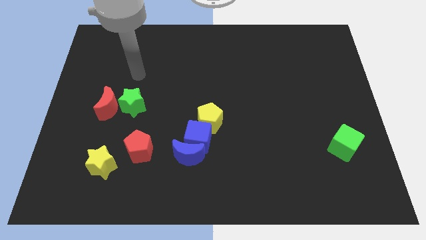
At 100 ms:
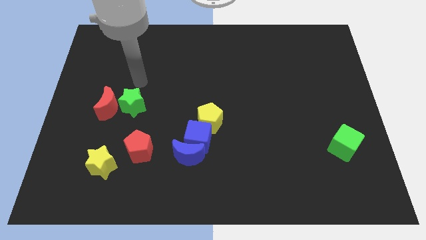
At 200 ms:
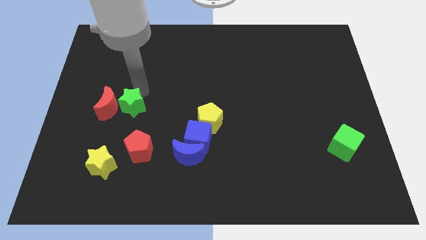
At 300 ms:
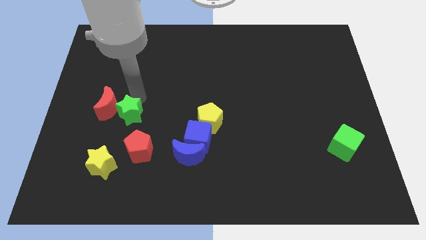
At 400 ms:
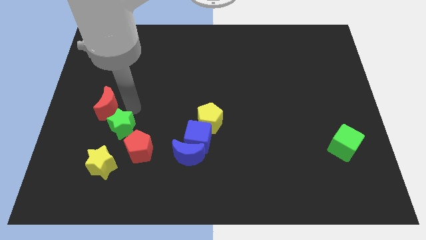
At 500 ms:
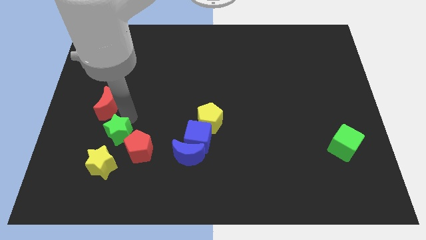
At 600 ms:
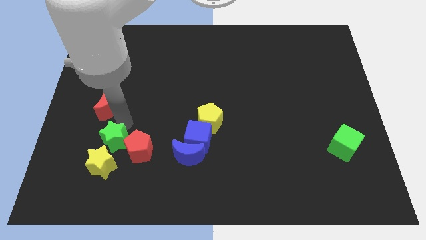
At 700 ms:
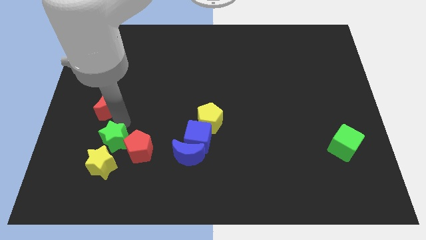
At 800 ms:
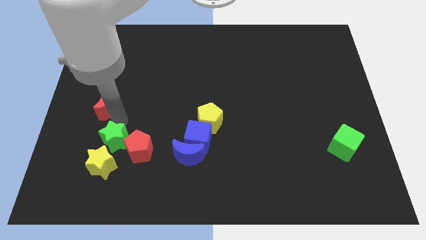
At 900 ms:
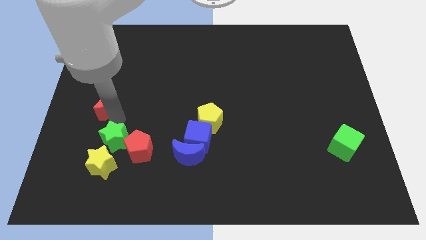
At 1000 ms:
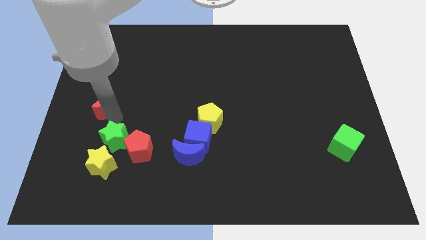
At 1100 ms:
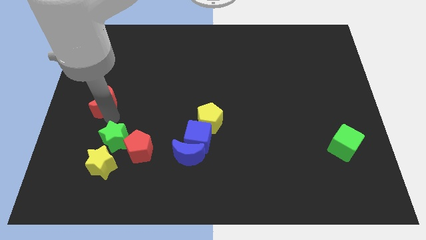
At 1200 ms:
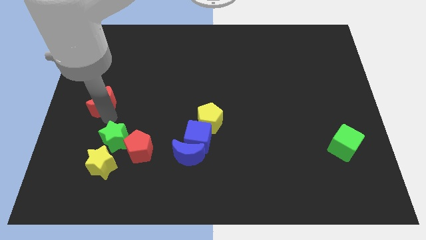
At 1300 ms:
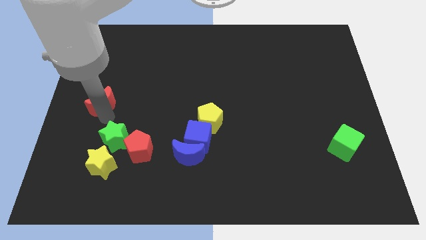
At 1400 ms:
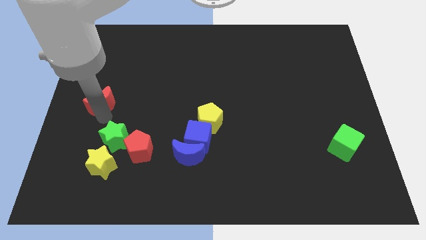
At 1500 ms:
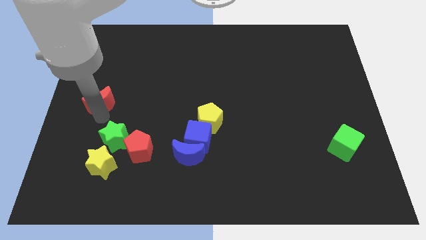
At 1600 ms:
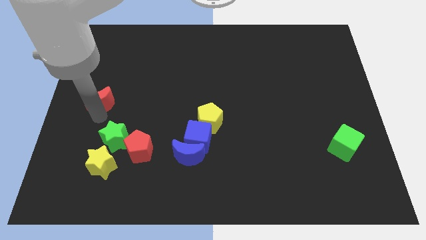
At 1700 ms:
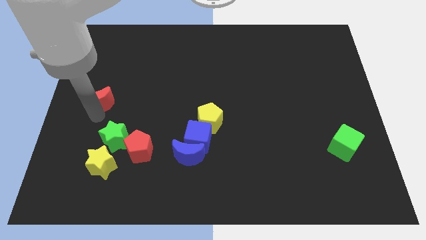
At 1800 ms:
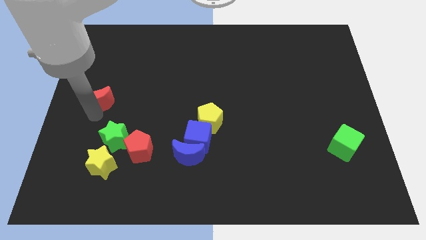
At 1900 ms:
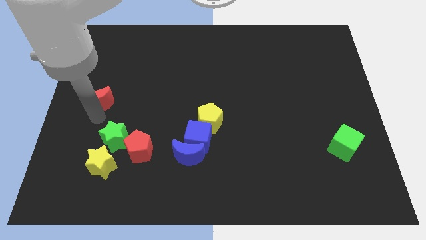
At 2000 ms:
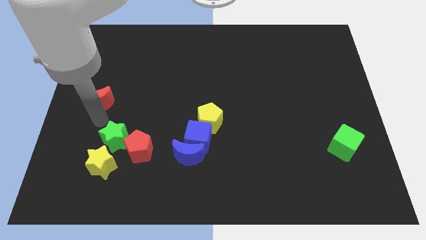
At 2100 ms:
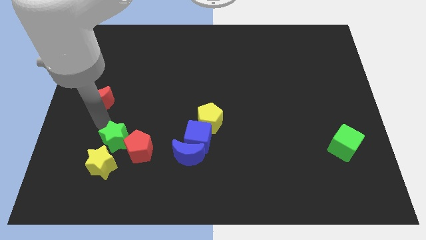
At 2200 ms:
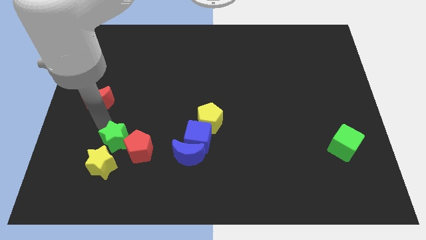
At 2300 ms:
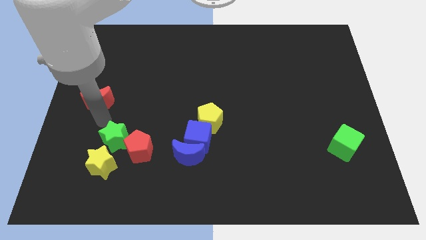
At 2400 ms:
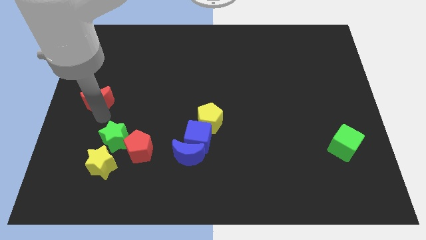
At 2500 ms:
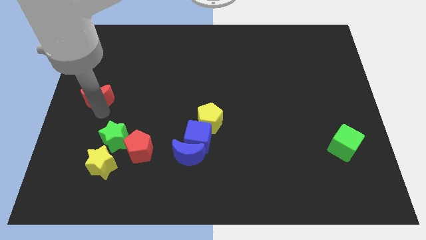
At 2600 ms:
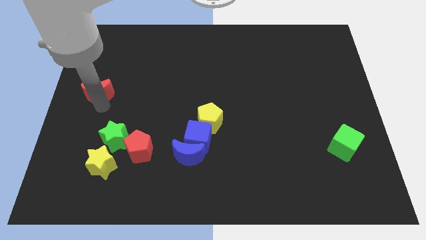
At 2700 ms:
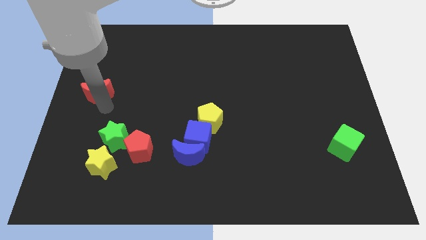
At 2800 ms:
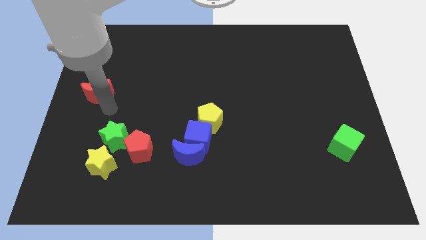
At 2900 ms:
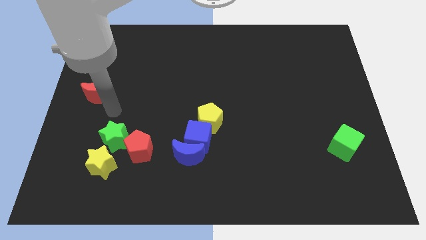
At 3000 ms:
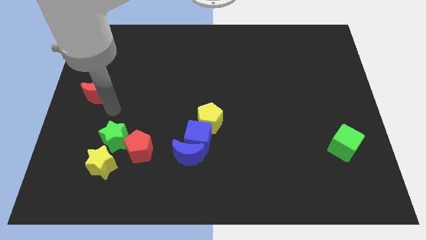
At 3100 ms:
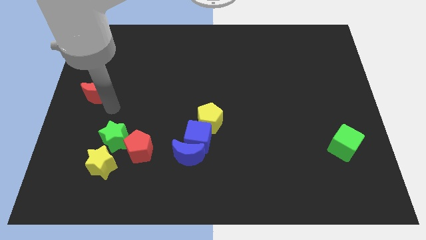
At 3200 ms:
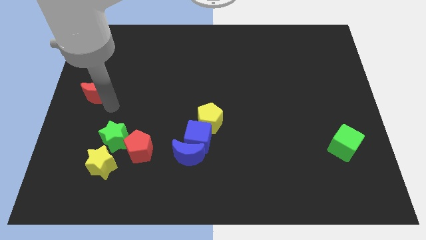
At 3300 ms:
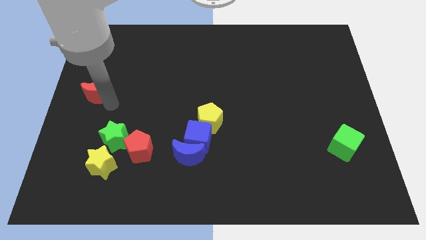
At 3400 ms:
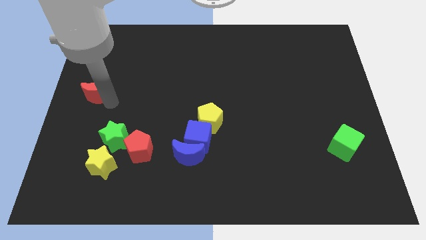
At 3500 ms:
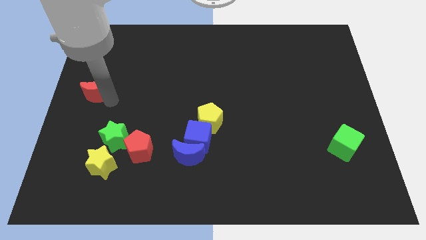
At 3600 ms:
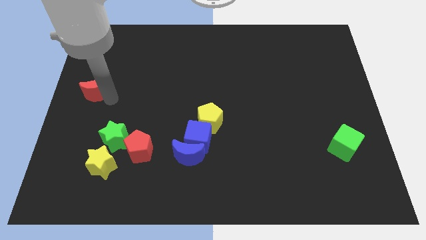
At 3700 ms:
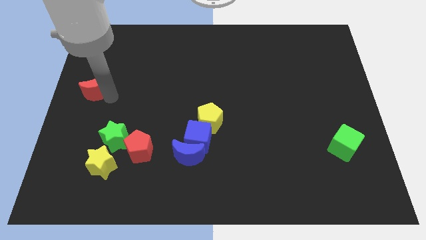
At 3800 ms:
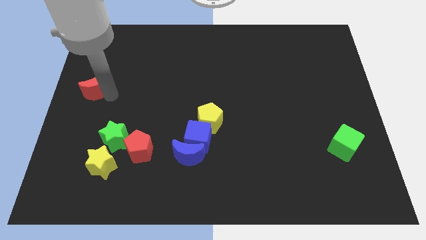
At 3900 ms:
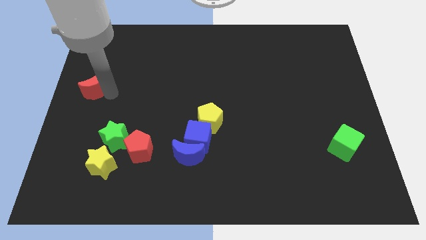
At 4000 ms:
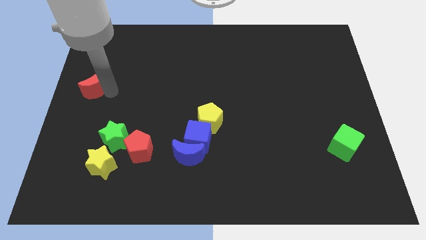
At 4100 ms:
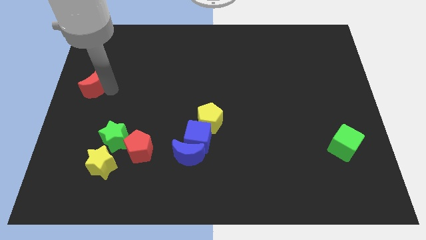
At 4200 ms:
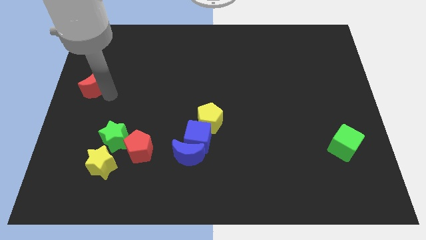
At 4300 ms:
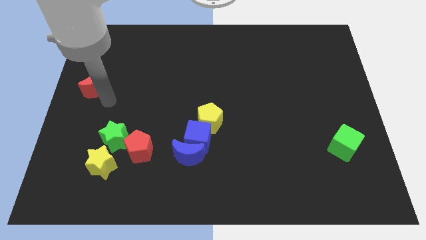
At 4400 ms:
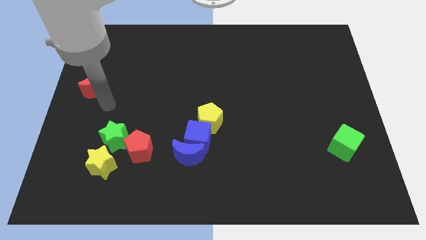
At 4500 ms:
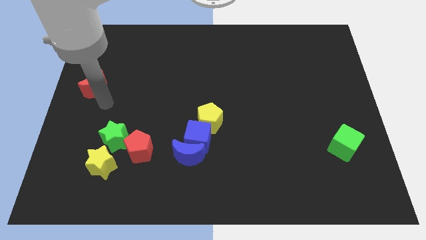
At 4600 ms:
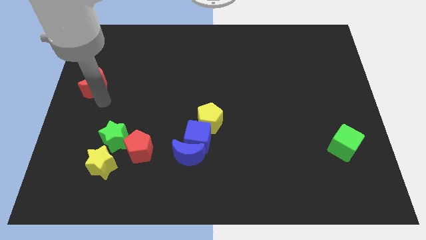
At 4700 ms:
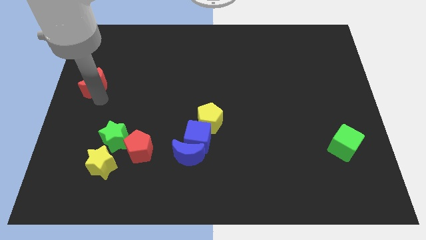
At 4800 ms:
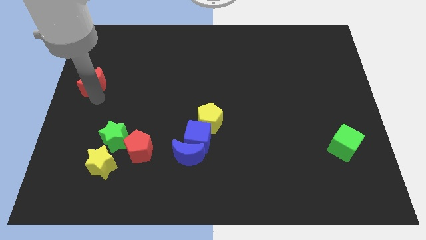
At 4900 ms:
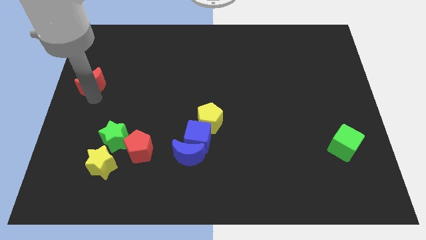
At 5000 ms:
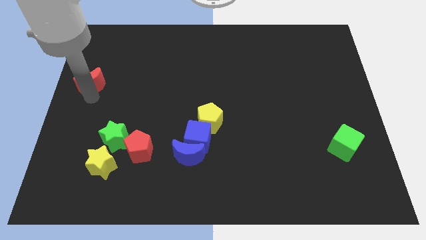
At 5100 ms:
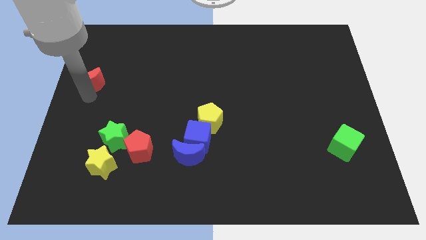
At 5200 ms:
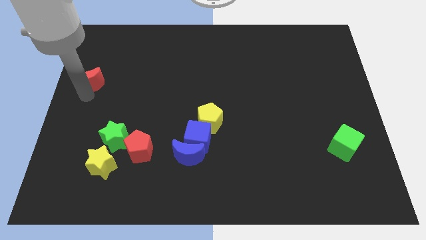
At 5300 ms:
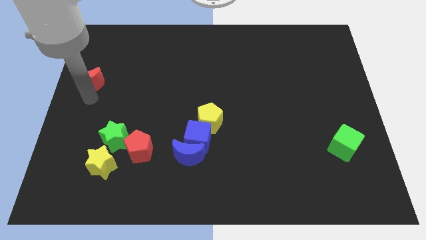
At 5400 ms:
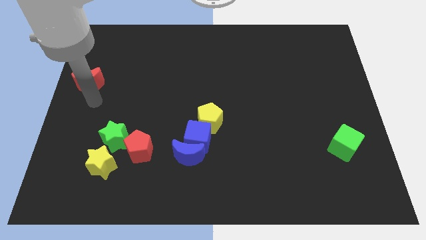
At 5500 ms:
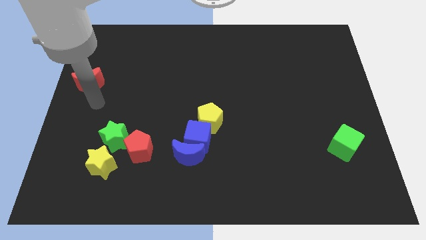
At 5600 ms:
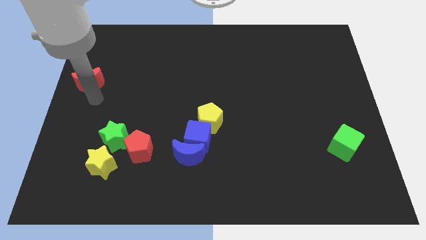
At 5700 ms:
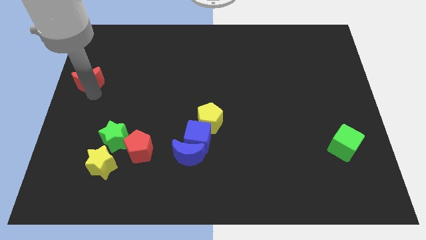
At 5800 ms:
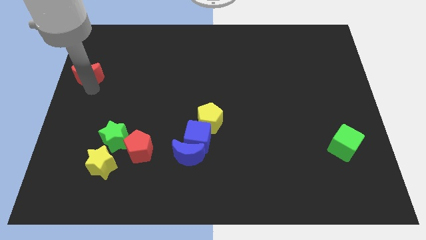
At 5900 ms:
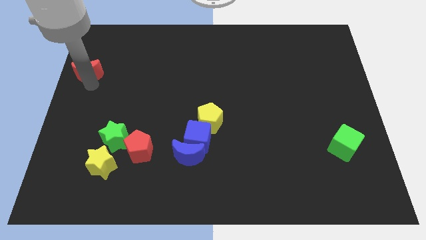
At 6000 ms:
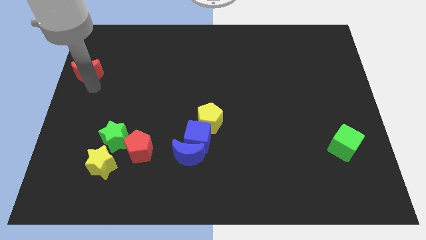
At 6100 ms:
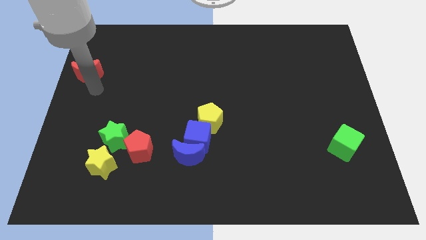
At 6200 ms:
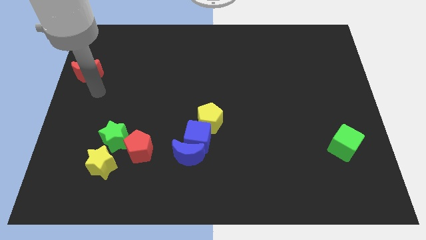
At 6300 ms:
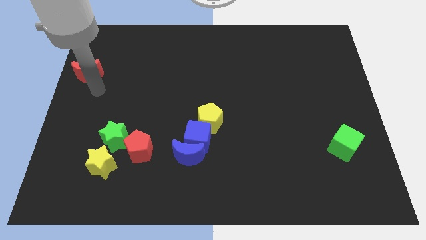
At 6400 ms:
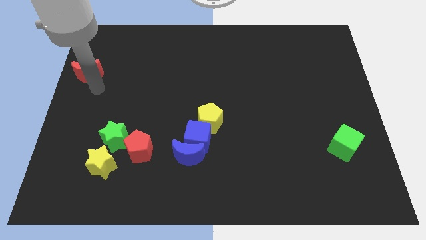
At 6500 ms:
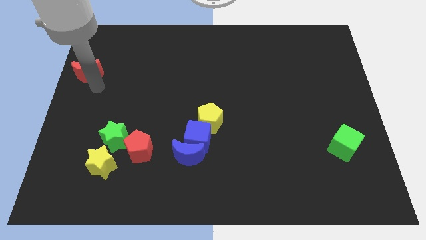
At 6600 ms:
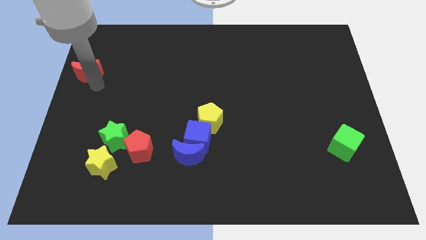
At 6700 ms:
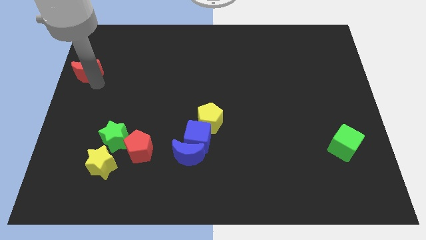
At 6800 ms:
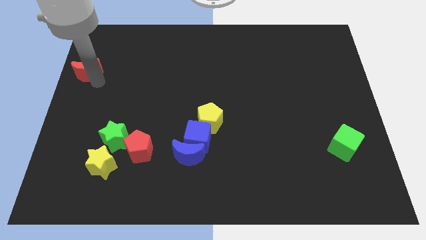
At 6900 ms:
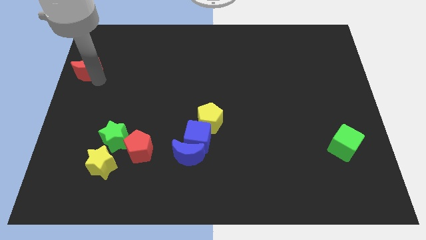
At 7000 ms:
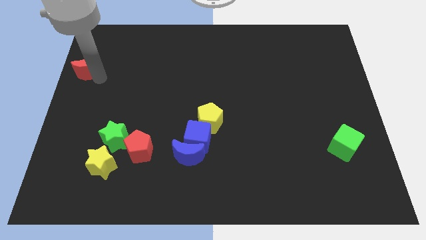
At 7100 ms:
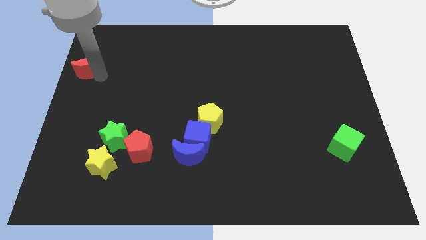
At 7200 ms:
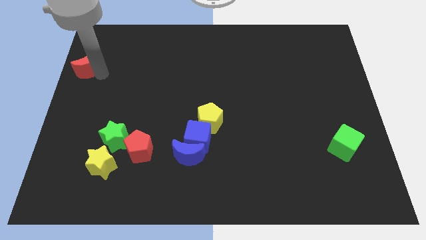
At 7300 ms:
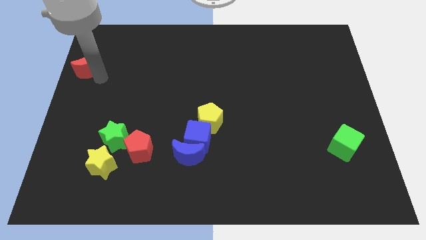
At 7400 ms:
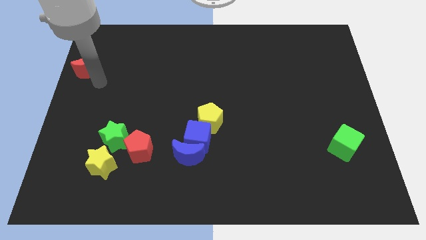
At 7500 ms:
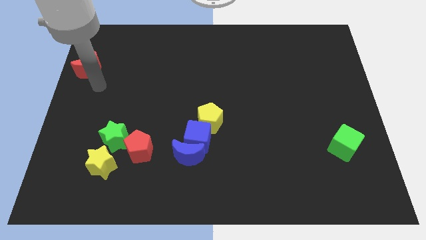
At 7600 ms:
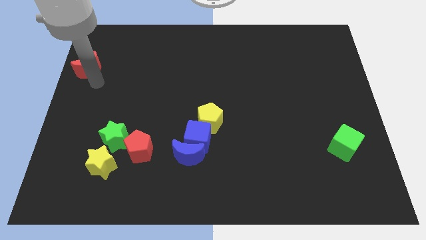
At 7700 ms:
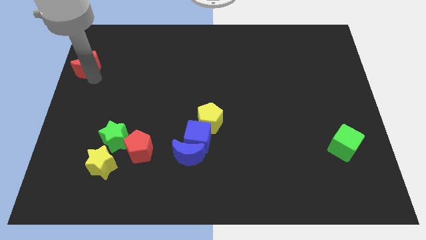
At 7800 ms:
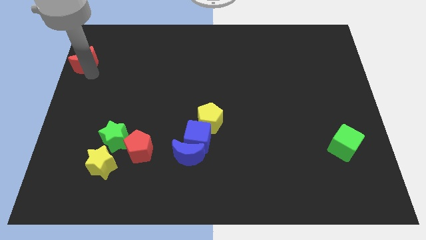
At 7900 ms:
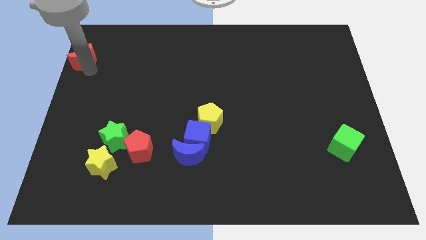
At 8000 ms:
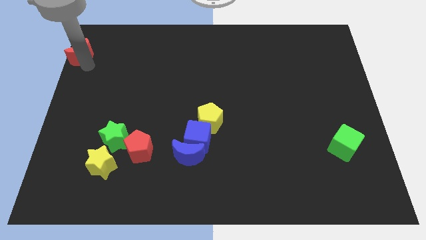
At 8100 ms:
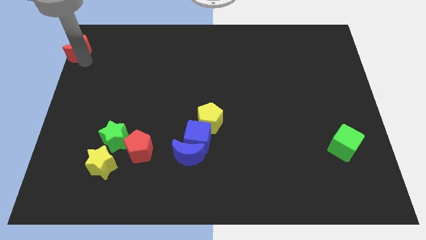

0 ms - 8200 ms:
push the red moon to the top left corner
